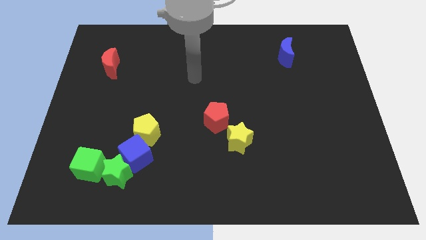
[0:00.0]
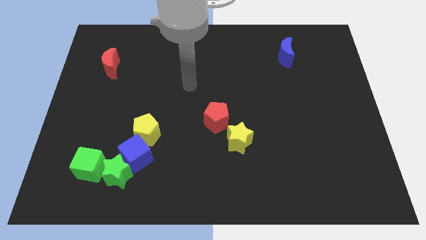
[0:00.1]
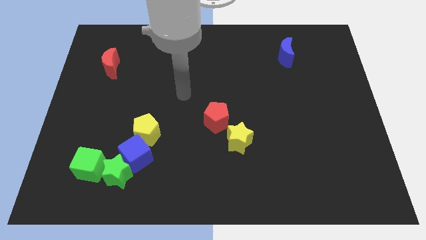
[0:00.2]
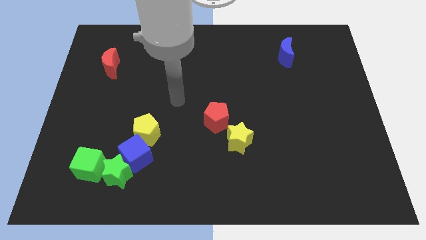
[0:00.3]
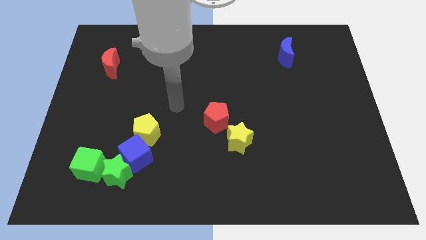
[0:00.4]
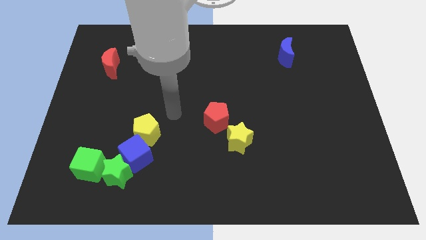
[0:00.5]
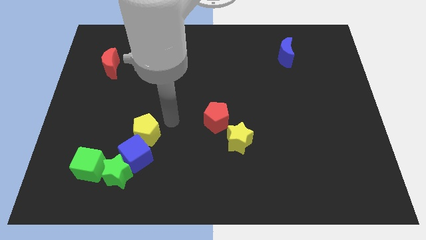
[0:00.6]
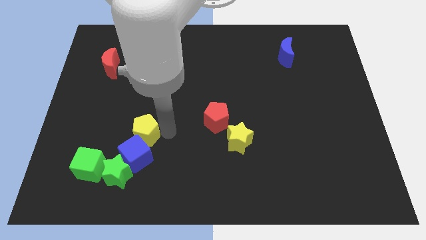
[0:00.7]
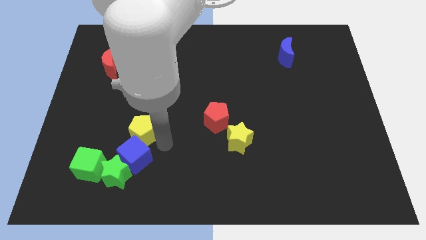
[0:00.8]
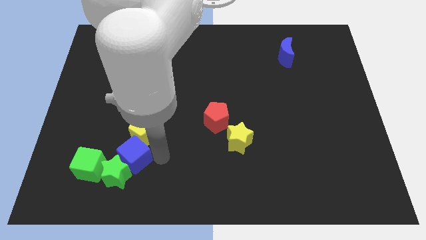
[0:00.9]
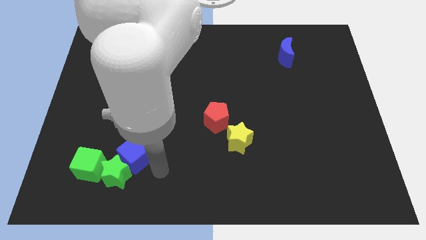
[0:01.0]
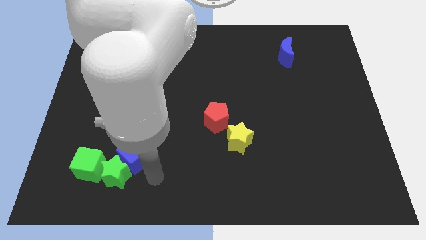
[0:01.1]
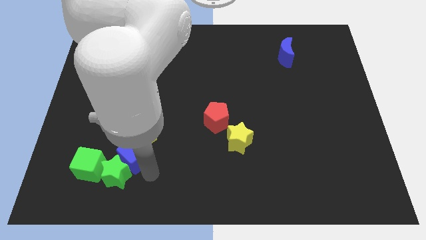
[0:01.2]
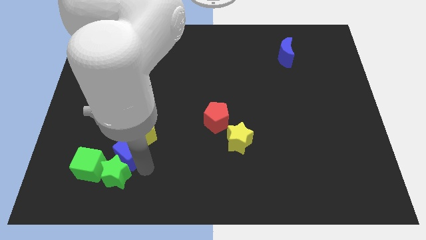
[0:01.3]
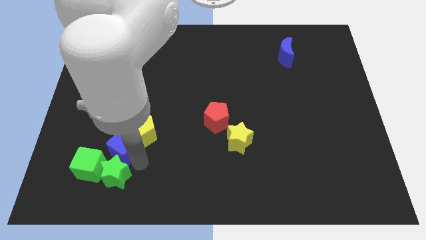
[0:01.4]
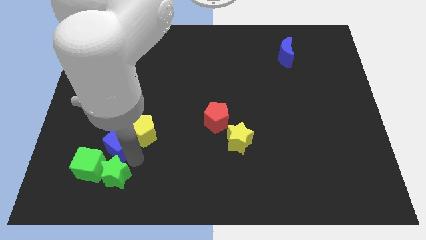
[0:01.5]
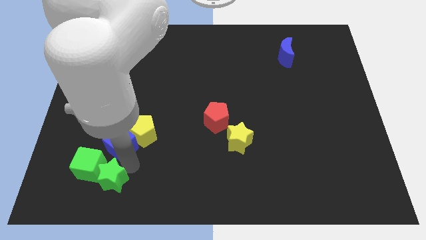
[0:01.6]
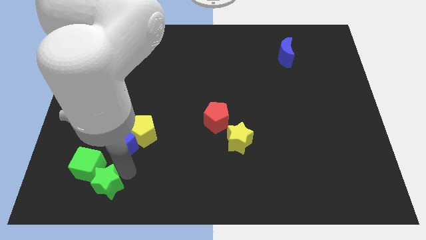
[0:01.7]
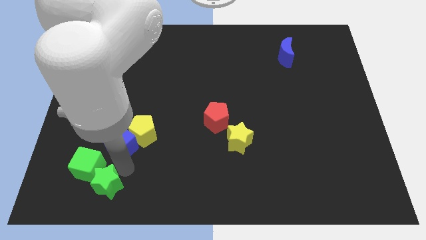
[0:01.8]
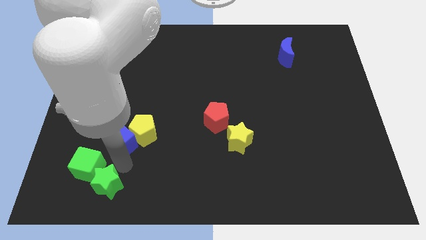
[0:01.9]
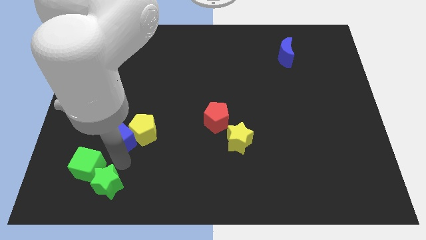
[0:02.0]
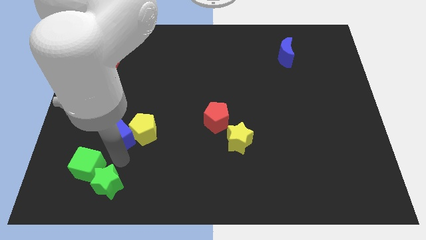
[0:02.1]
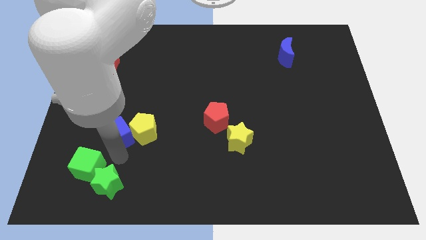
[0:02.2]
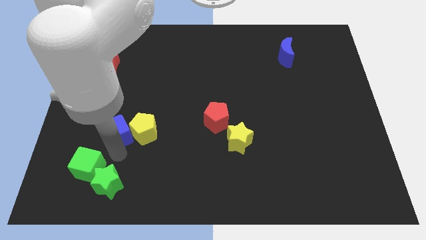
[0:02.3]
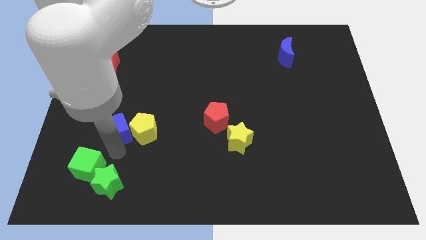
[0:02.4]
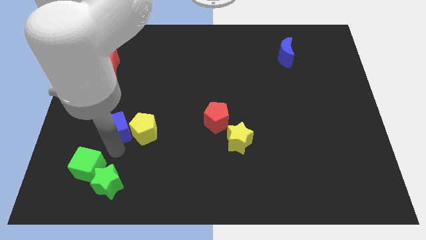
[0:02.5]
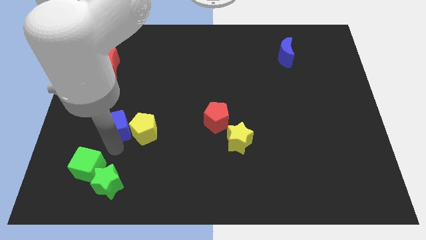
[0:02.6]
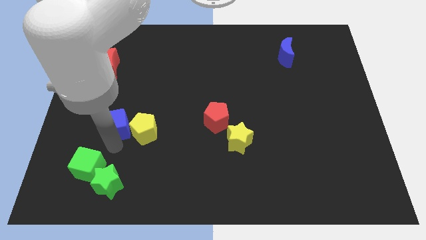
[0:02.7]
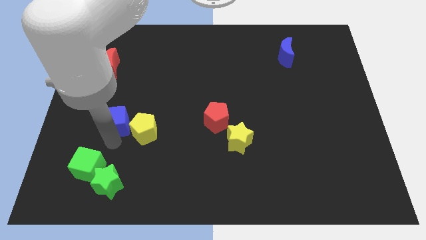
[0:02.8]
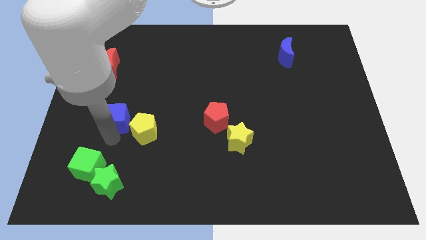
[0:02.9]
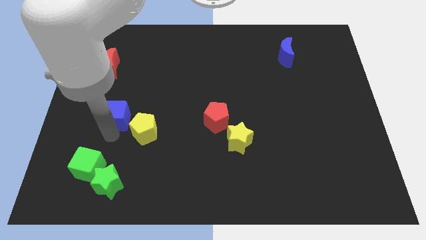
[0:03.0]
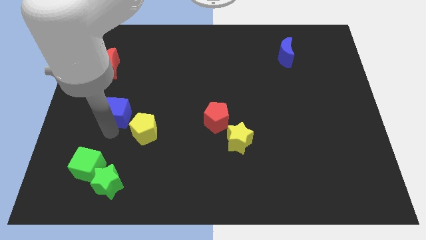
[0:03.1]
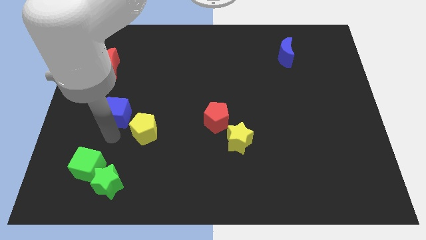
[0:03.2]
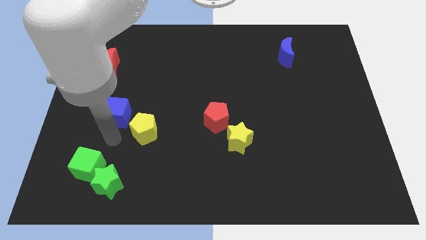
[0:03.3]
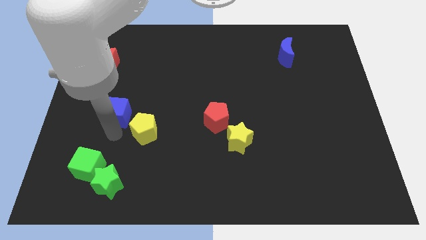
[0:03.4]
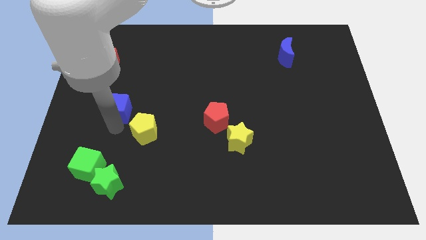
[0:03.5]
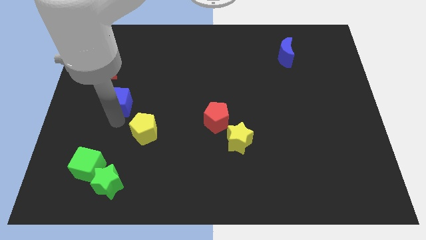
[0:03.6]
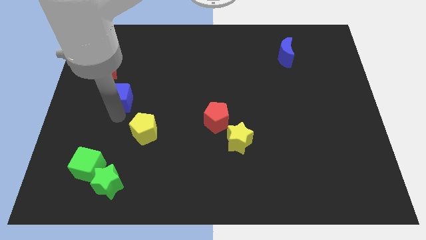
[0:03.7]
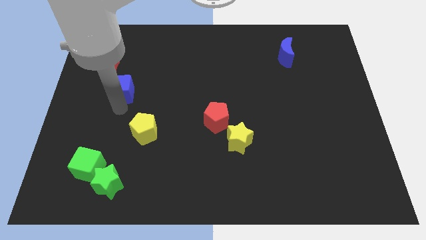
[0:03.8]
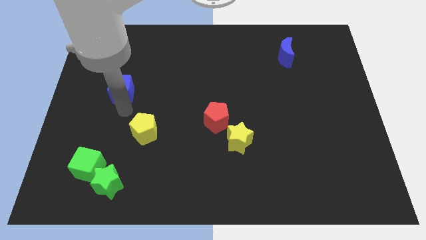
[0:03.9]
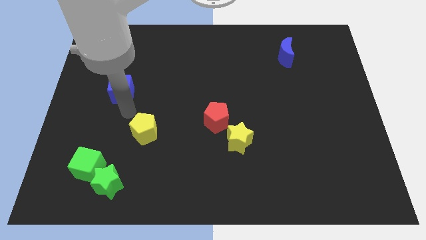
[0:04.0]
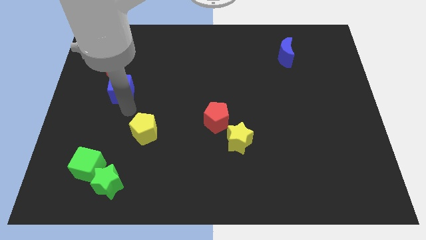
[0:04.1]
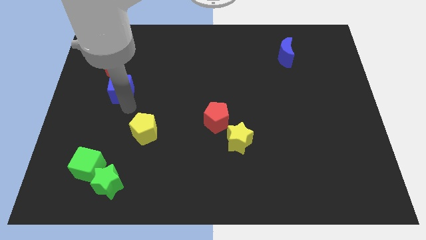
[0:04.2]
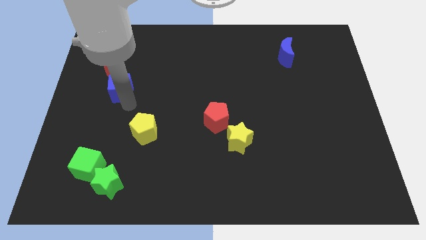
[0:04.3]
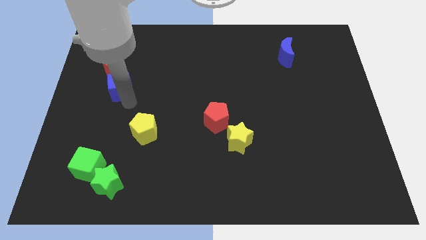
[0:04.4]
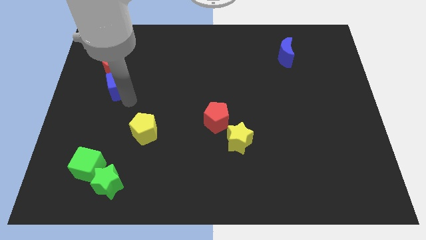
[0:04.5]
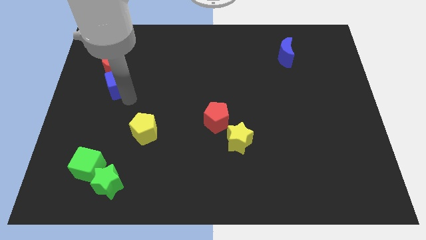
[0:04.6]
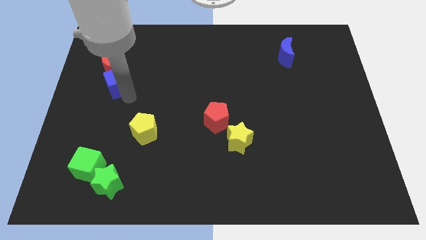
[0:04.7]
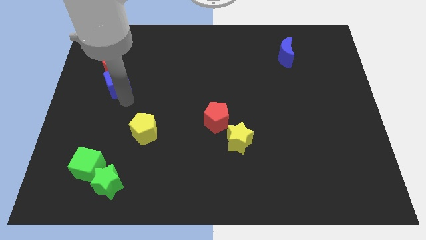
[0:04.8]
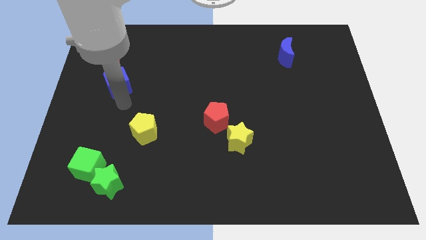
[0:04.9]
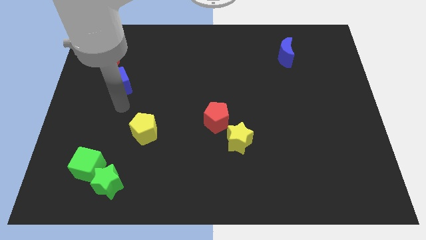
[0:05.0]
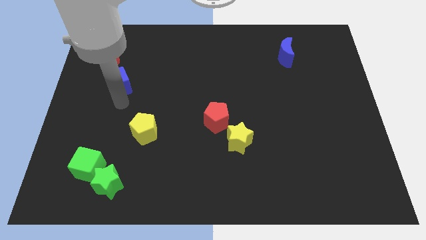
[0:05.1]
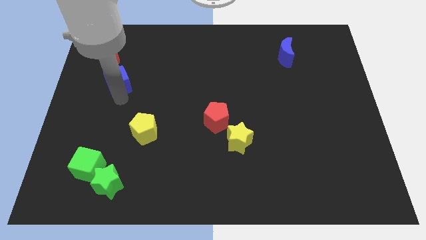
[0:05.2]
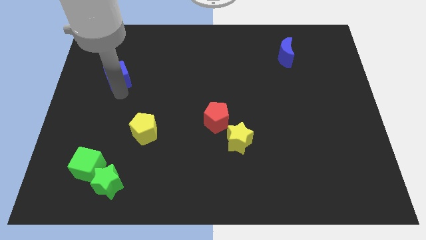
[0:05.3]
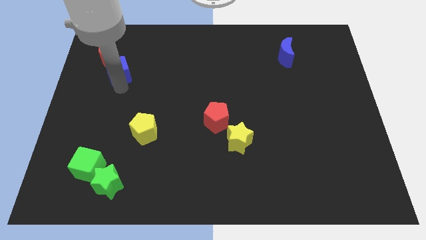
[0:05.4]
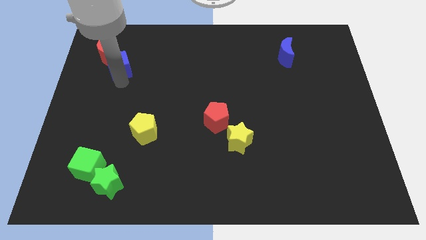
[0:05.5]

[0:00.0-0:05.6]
put the blue cube to the red moon

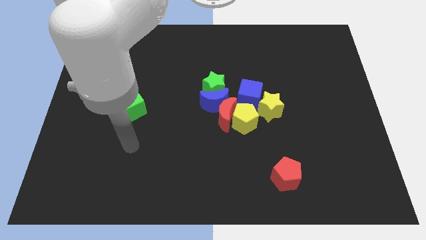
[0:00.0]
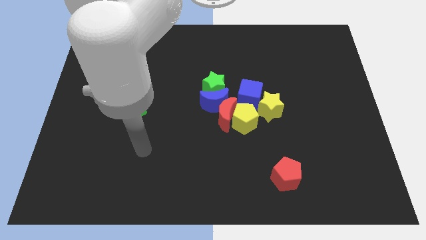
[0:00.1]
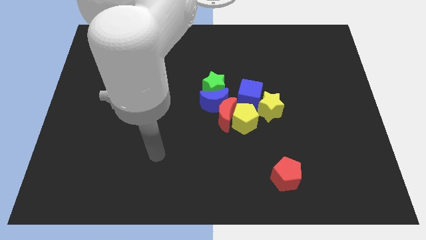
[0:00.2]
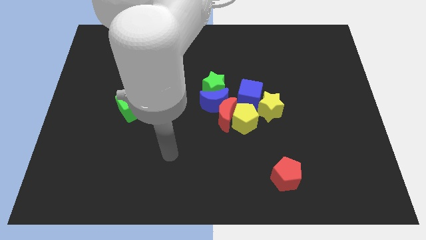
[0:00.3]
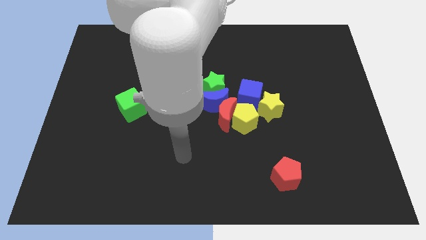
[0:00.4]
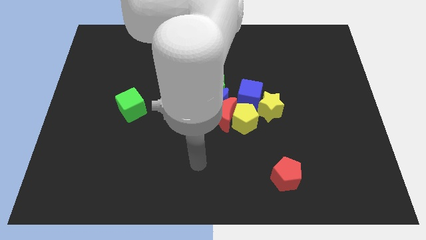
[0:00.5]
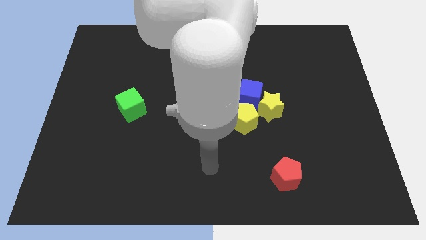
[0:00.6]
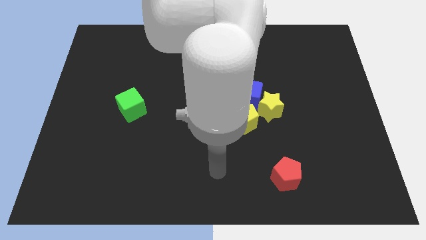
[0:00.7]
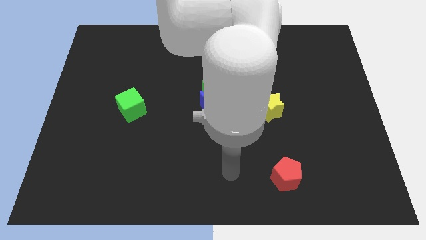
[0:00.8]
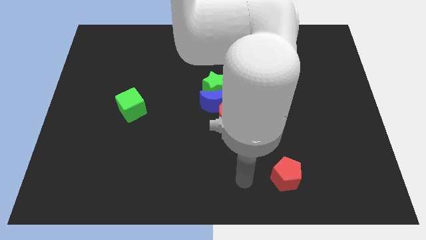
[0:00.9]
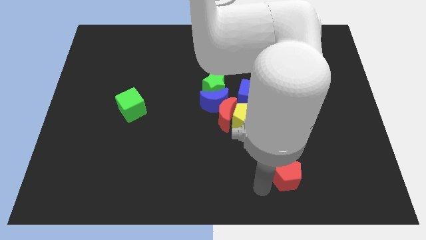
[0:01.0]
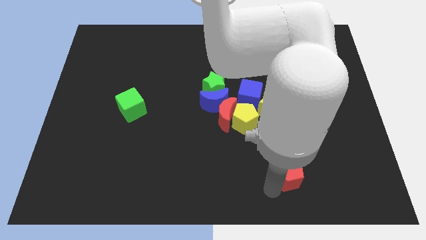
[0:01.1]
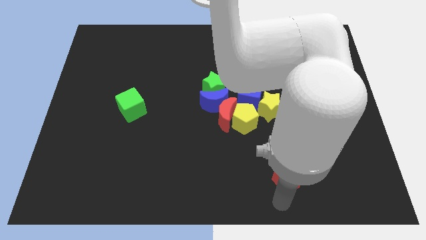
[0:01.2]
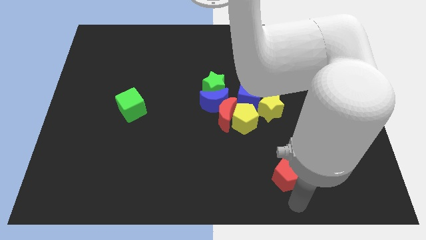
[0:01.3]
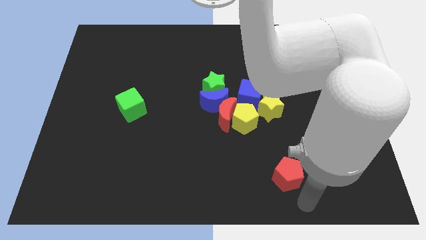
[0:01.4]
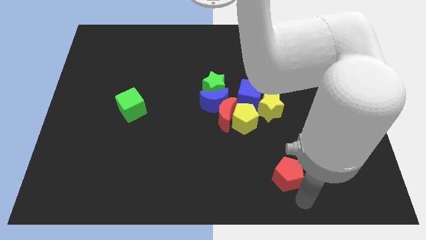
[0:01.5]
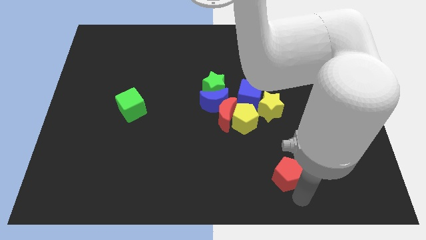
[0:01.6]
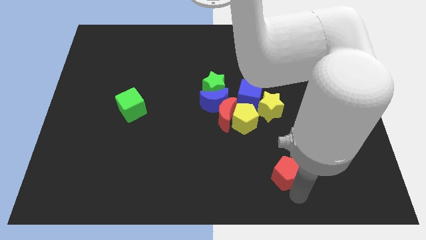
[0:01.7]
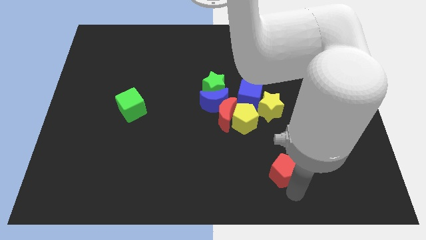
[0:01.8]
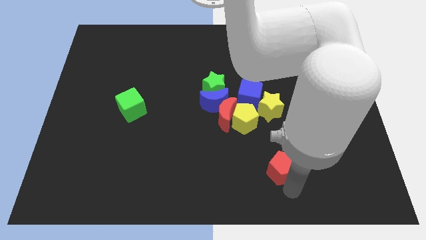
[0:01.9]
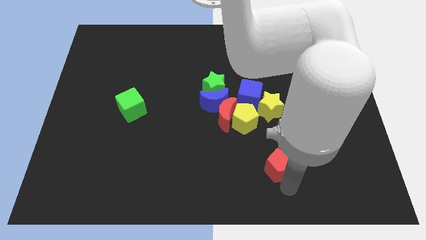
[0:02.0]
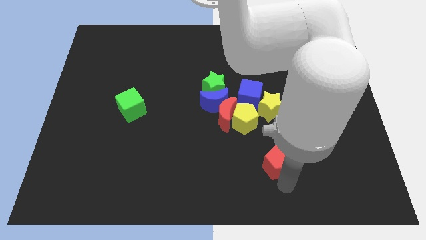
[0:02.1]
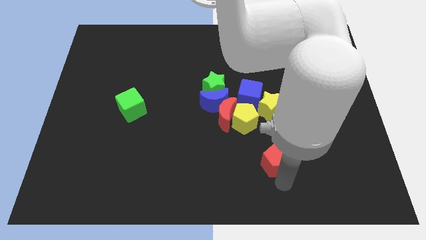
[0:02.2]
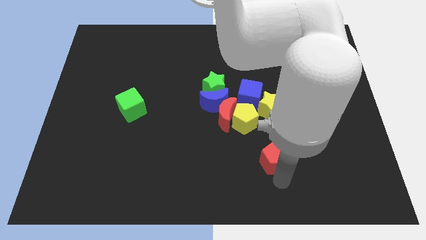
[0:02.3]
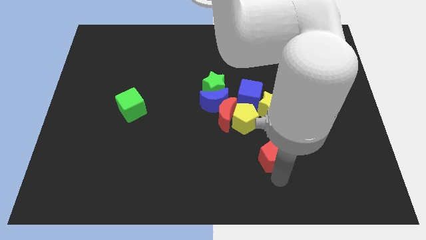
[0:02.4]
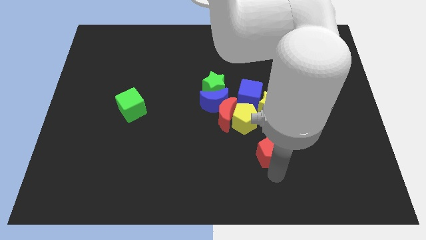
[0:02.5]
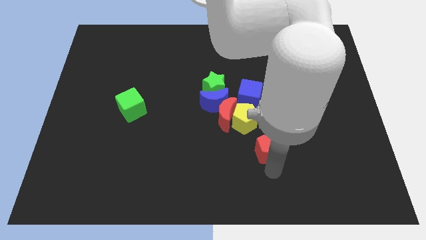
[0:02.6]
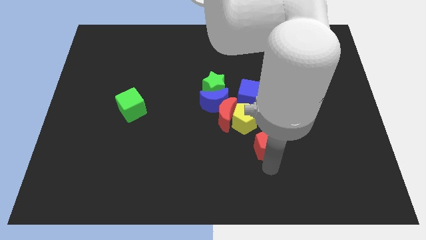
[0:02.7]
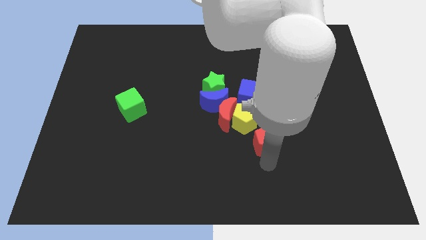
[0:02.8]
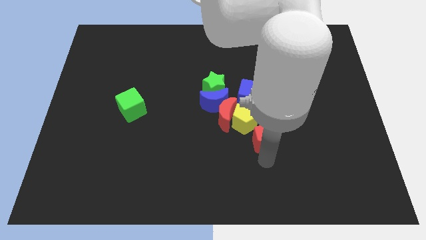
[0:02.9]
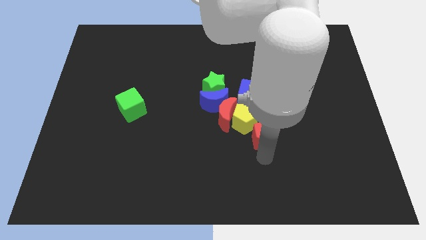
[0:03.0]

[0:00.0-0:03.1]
slide the red pentagon towards the yellow pentagon

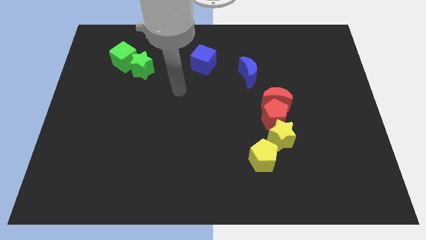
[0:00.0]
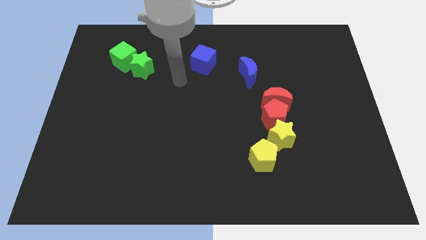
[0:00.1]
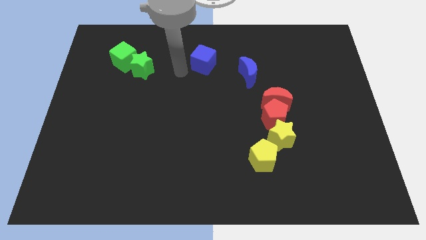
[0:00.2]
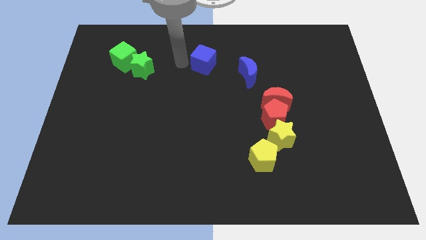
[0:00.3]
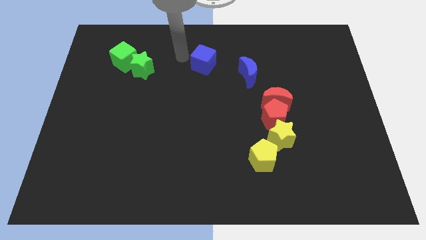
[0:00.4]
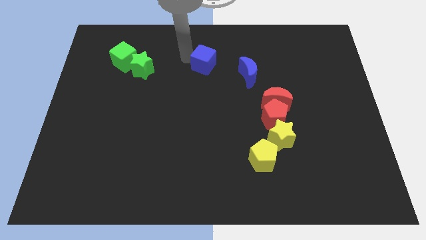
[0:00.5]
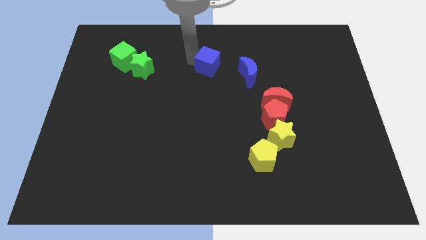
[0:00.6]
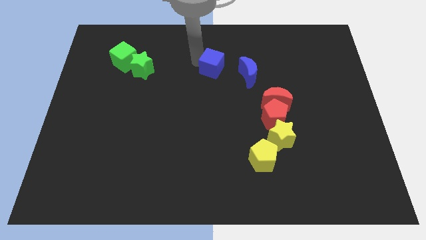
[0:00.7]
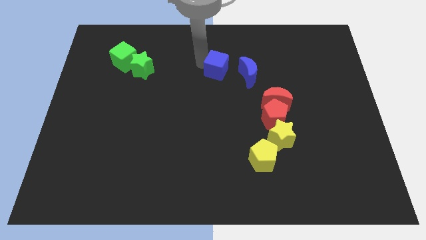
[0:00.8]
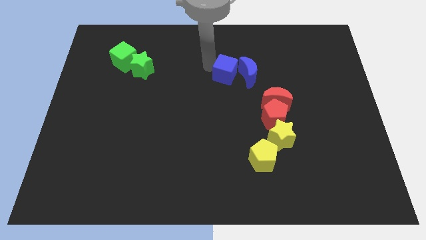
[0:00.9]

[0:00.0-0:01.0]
move the blue cube next to the blue moon
